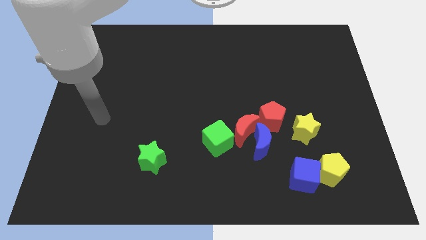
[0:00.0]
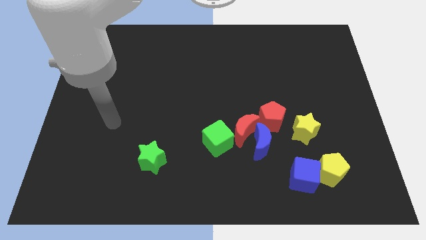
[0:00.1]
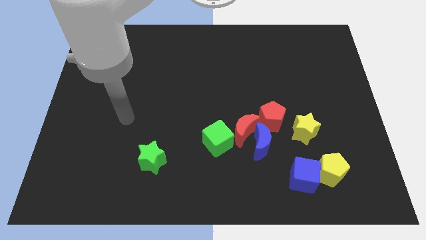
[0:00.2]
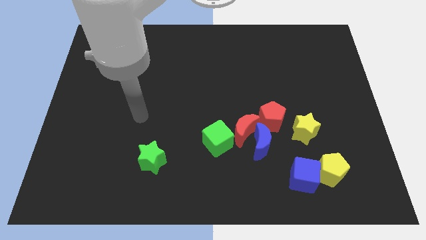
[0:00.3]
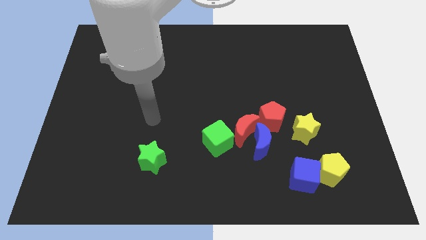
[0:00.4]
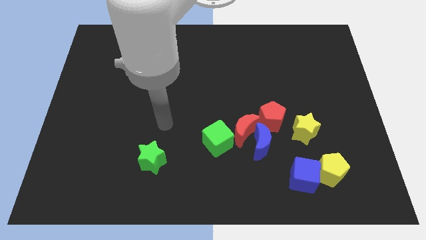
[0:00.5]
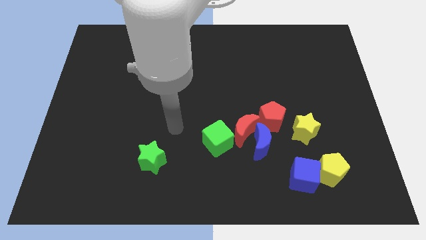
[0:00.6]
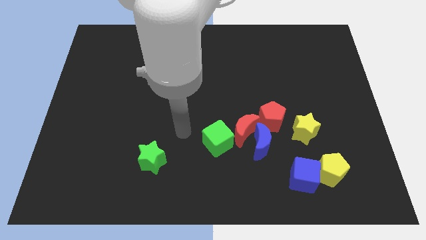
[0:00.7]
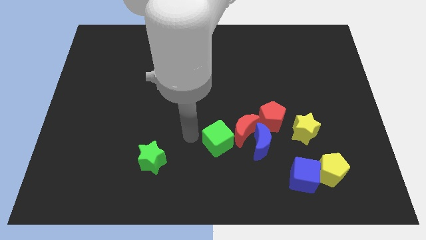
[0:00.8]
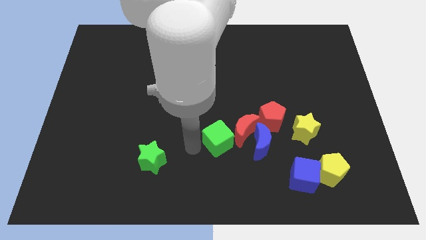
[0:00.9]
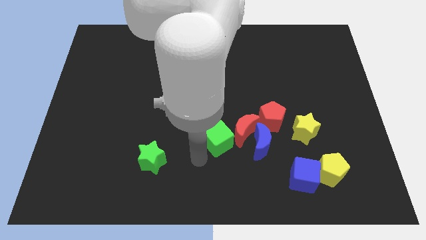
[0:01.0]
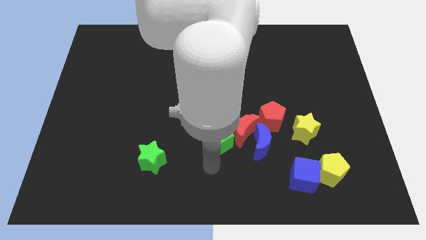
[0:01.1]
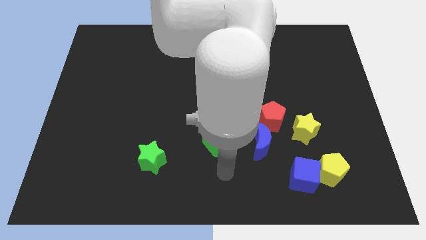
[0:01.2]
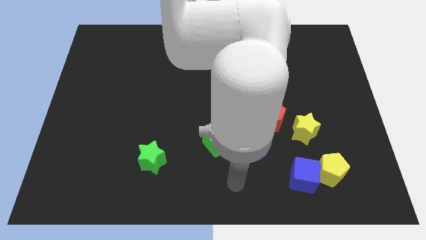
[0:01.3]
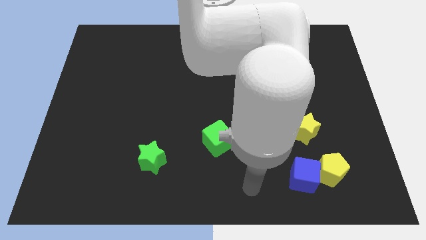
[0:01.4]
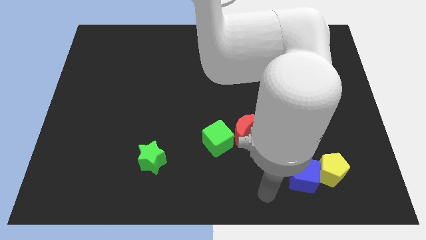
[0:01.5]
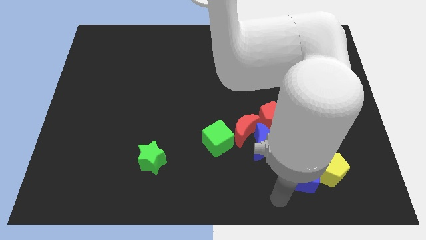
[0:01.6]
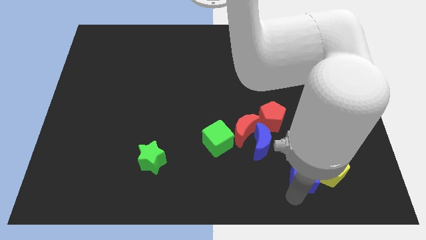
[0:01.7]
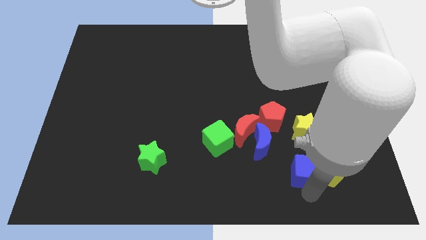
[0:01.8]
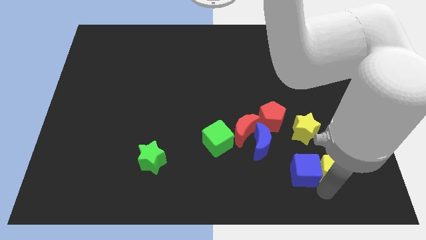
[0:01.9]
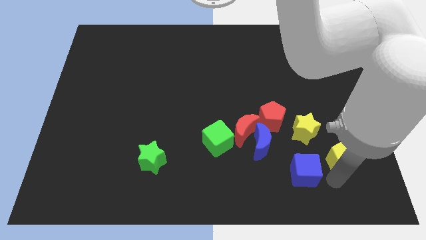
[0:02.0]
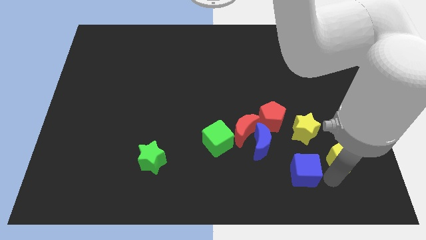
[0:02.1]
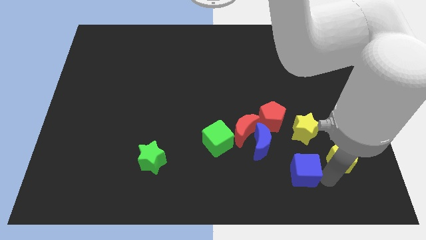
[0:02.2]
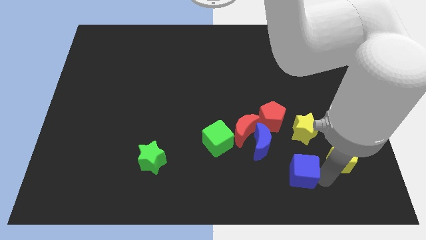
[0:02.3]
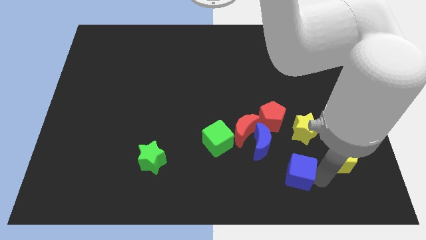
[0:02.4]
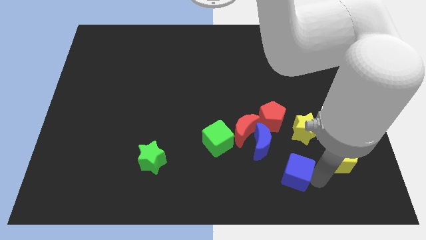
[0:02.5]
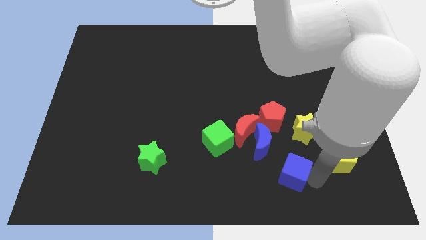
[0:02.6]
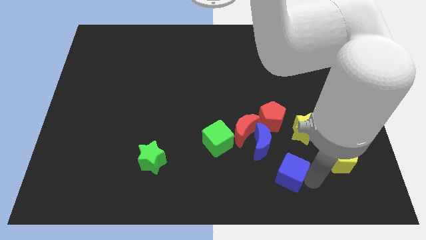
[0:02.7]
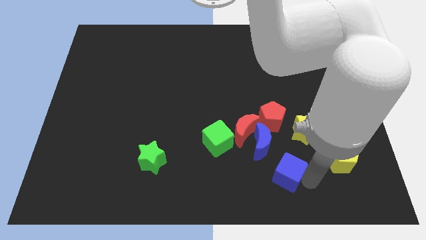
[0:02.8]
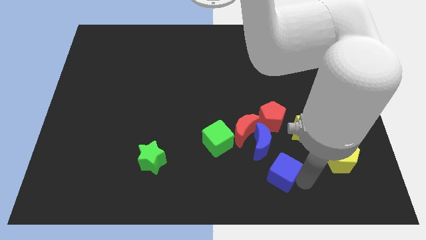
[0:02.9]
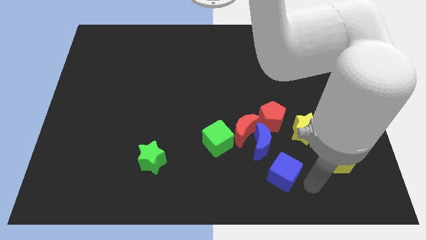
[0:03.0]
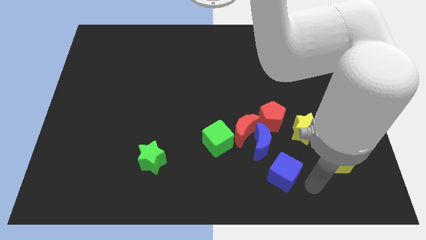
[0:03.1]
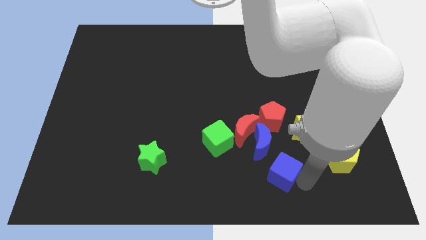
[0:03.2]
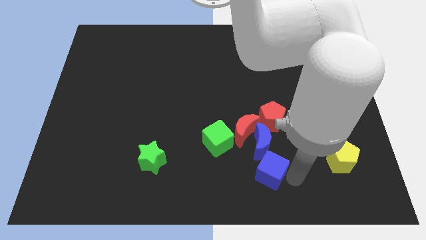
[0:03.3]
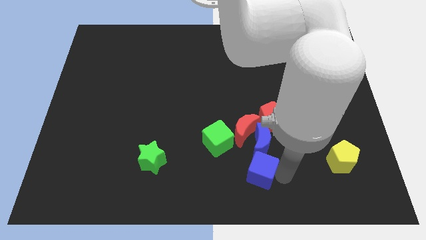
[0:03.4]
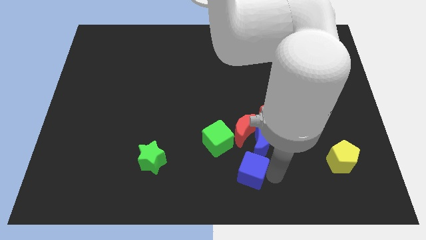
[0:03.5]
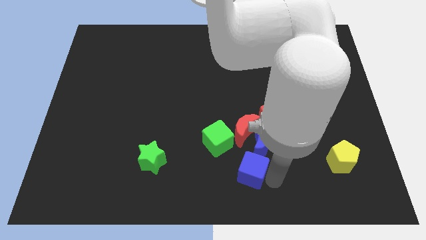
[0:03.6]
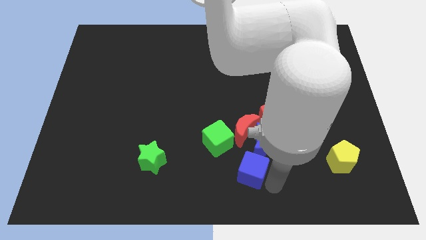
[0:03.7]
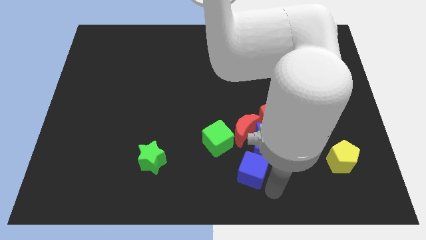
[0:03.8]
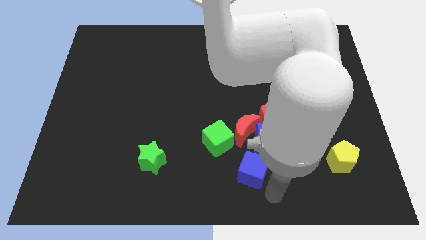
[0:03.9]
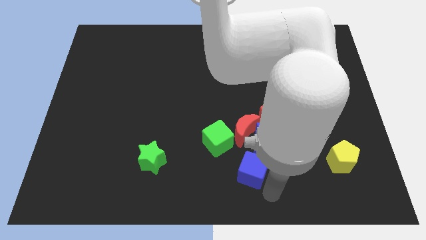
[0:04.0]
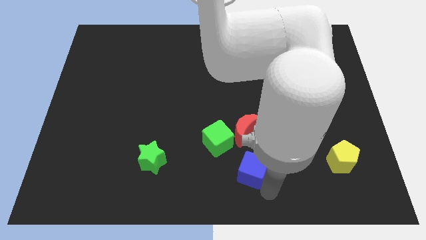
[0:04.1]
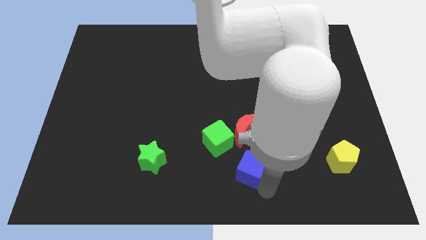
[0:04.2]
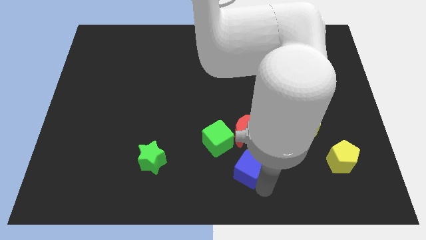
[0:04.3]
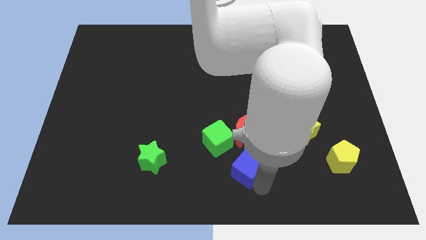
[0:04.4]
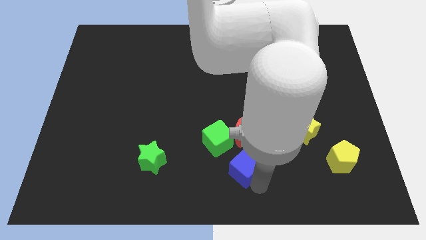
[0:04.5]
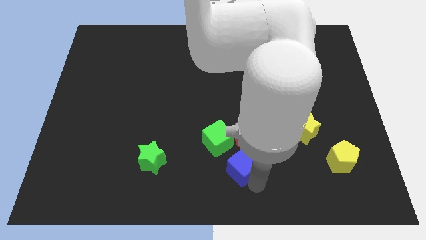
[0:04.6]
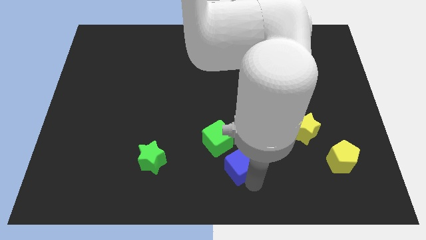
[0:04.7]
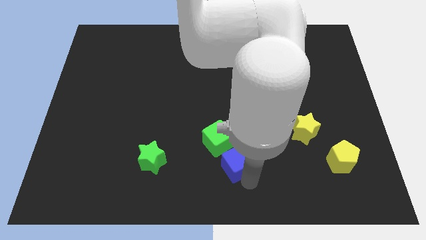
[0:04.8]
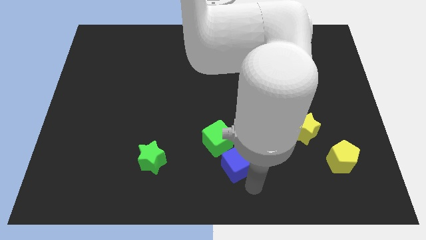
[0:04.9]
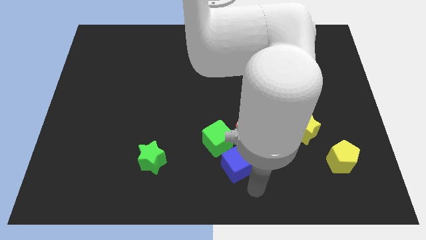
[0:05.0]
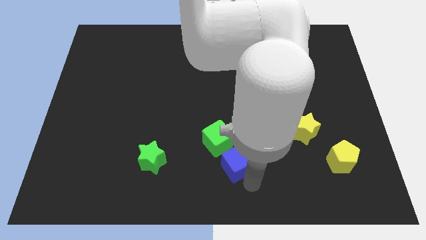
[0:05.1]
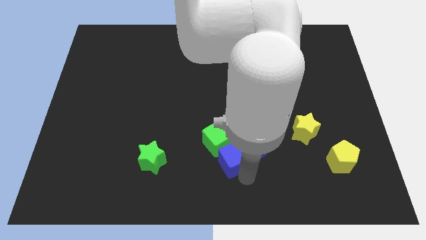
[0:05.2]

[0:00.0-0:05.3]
move the blue cube towards the green cube

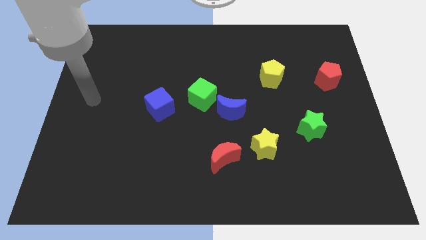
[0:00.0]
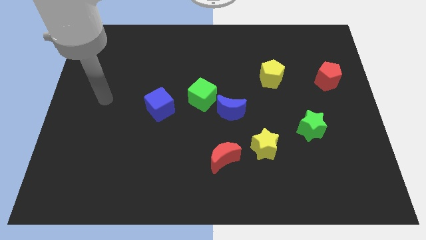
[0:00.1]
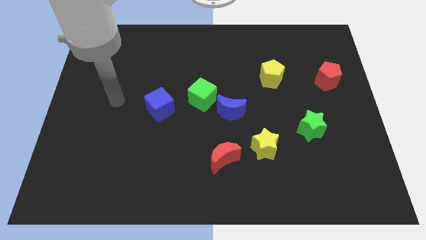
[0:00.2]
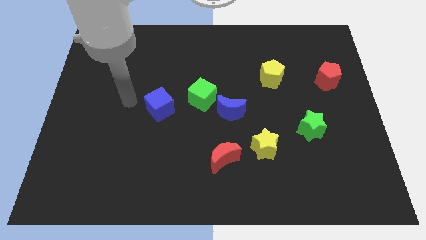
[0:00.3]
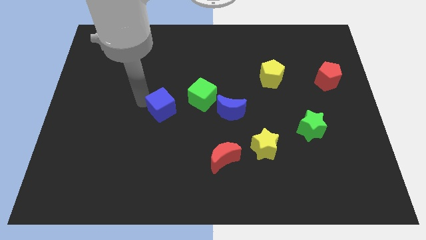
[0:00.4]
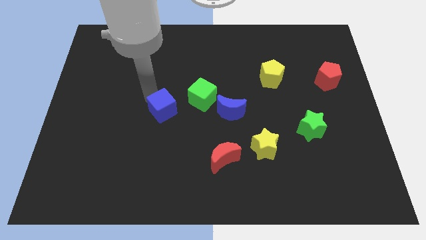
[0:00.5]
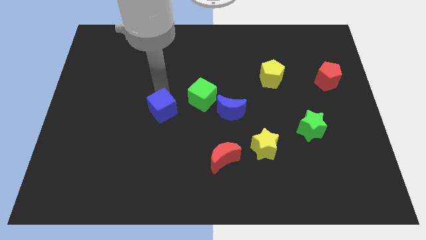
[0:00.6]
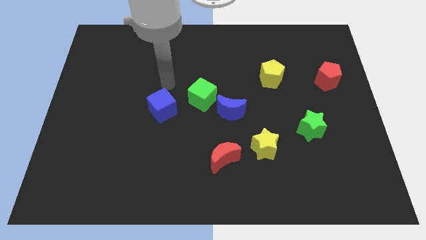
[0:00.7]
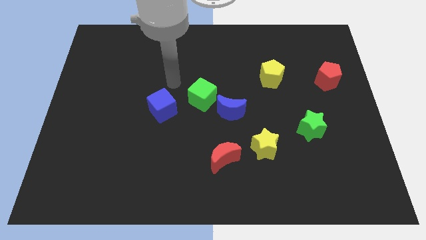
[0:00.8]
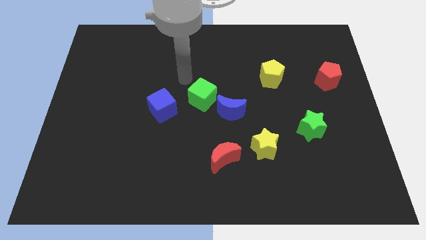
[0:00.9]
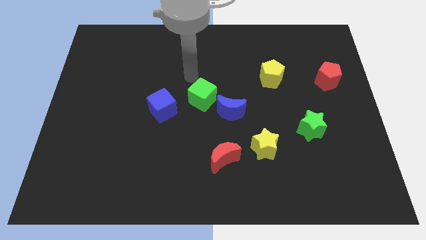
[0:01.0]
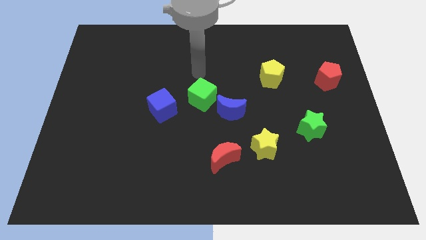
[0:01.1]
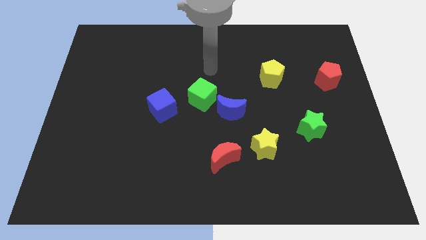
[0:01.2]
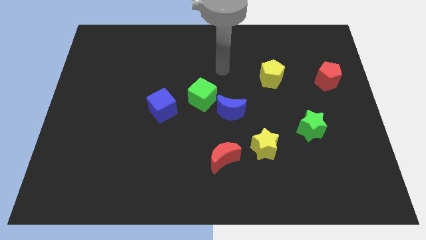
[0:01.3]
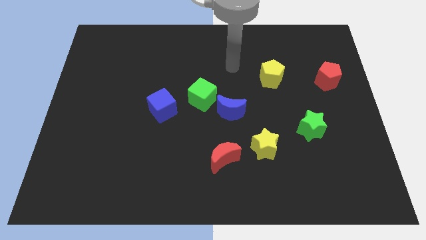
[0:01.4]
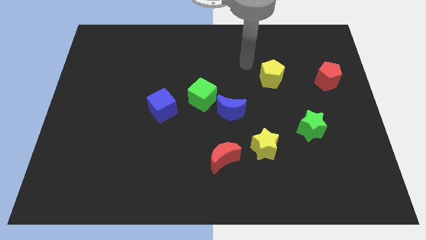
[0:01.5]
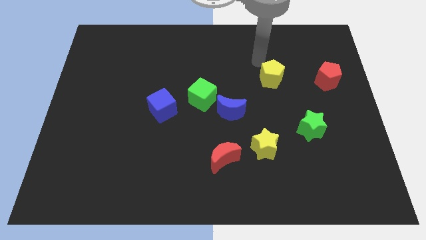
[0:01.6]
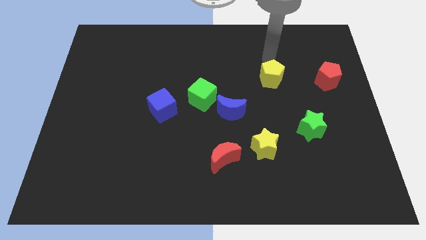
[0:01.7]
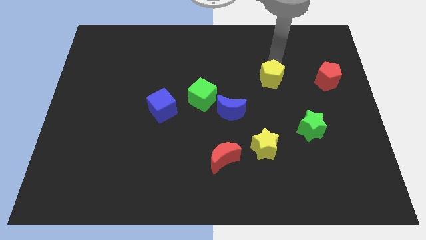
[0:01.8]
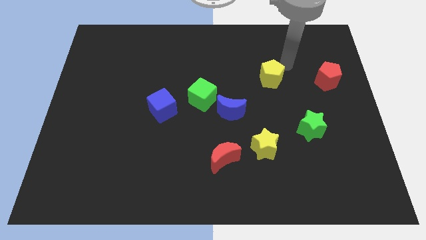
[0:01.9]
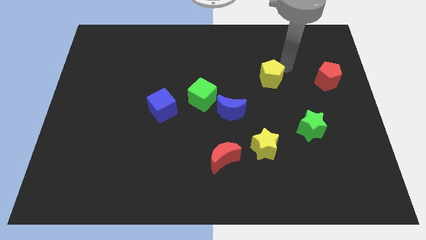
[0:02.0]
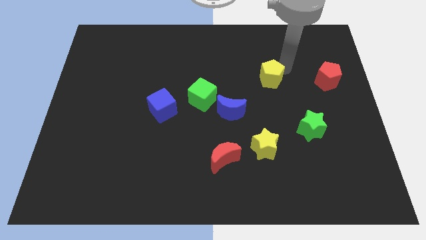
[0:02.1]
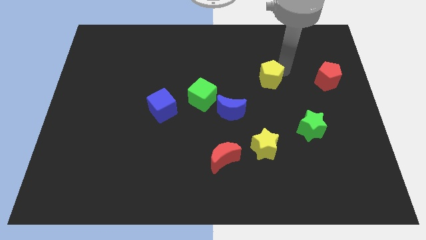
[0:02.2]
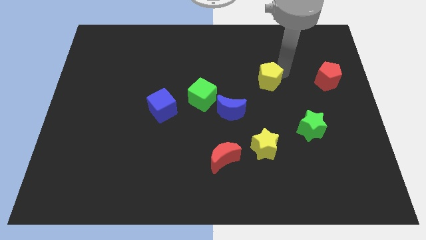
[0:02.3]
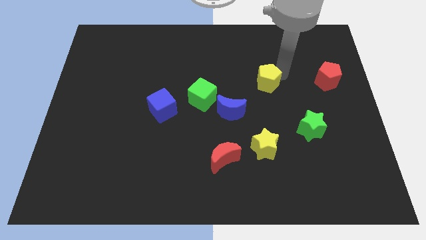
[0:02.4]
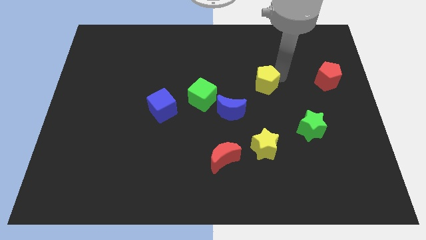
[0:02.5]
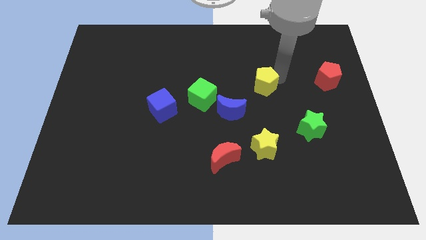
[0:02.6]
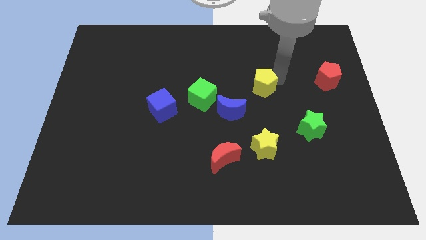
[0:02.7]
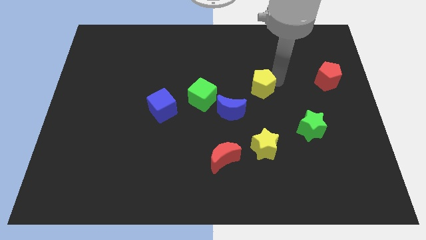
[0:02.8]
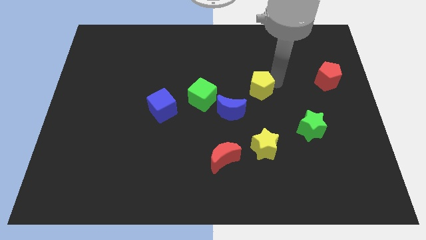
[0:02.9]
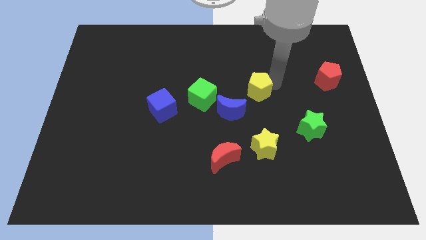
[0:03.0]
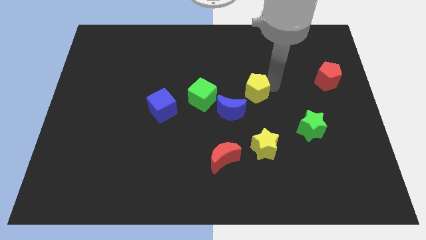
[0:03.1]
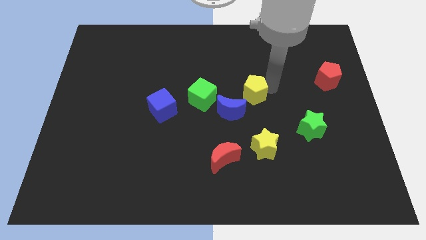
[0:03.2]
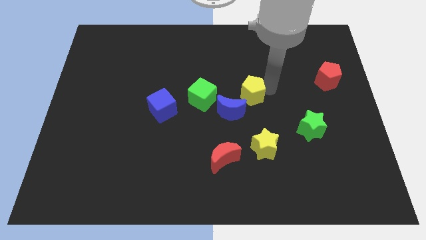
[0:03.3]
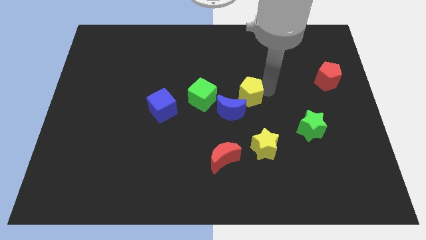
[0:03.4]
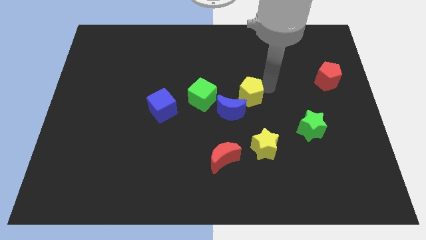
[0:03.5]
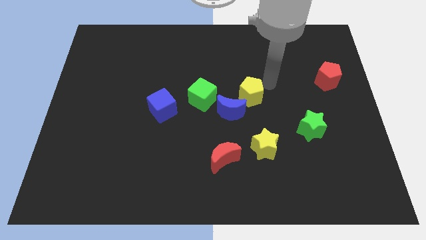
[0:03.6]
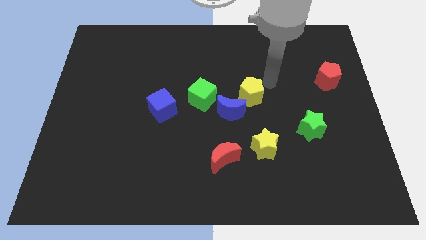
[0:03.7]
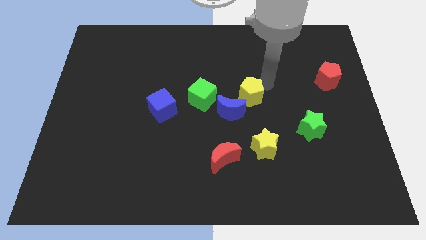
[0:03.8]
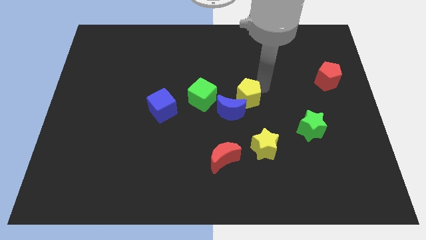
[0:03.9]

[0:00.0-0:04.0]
slide the yellow pentagon next to the blue moon
